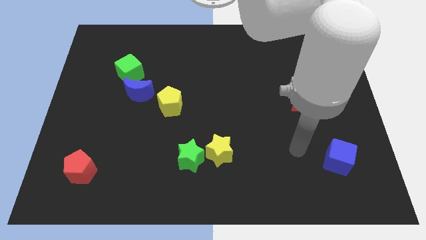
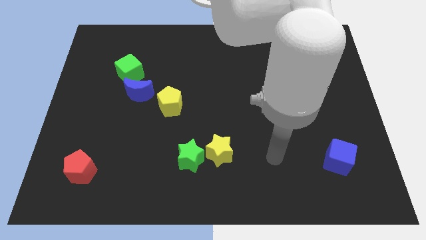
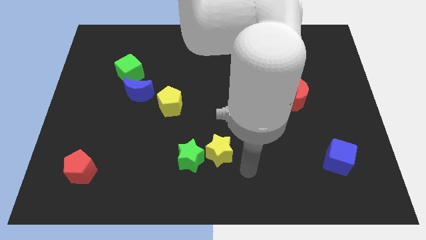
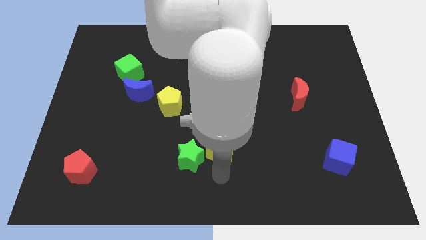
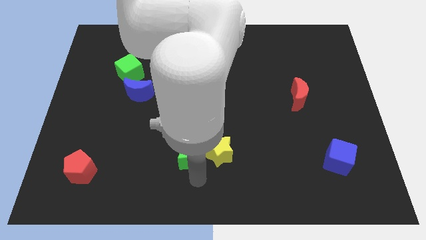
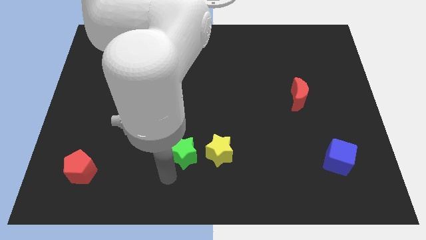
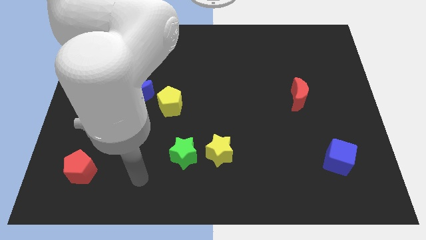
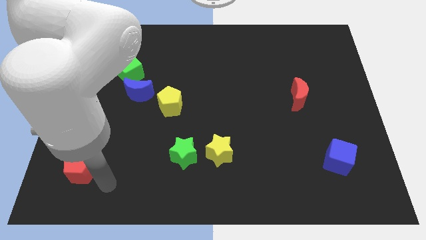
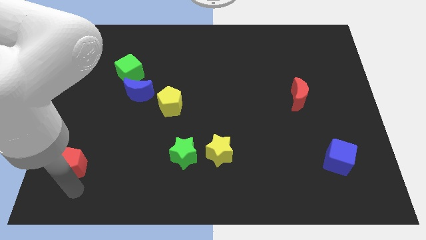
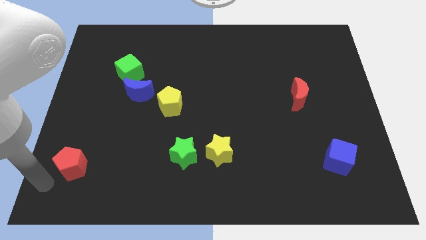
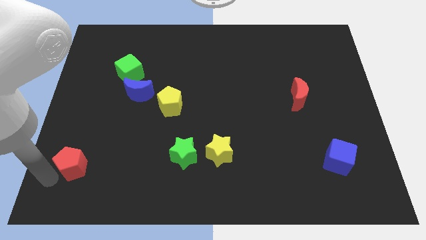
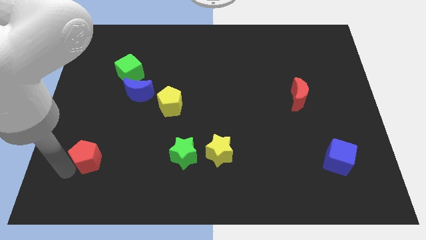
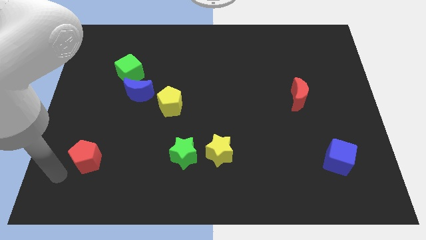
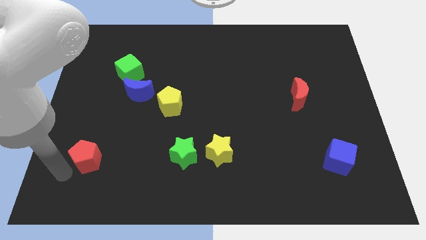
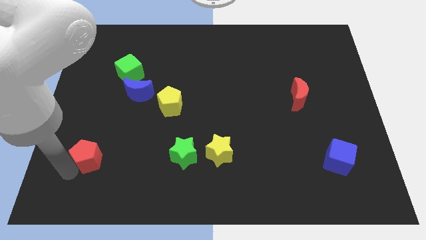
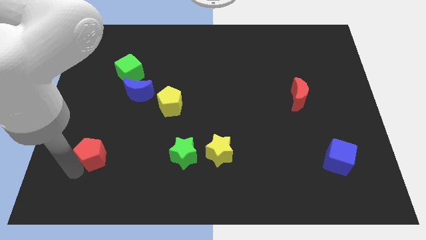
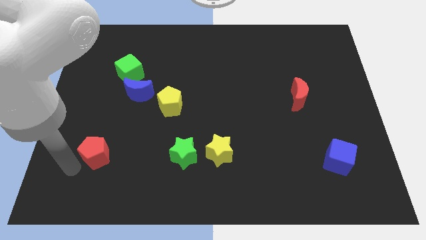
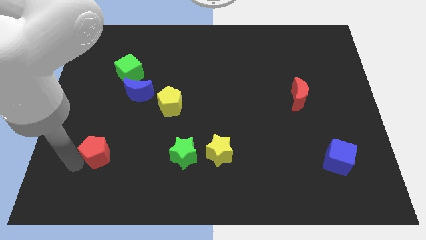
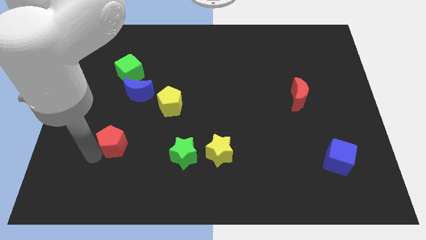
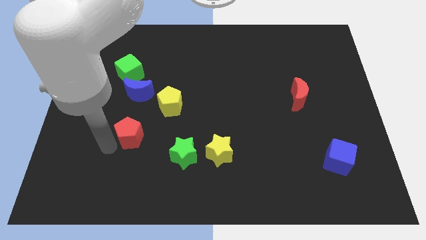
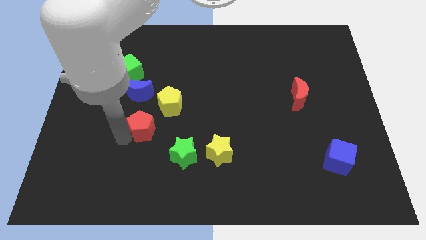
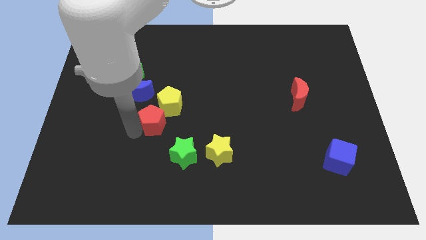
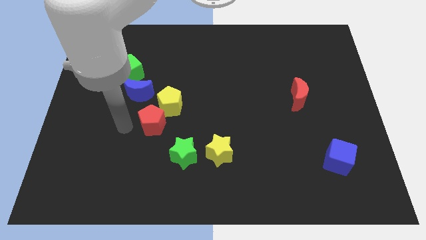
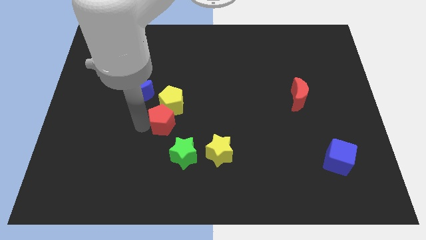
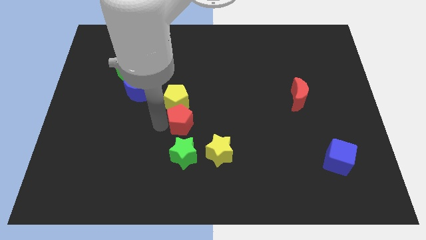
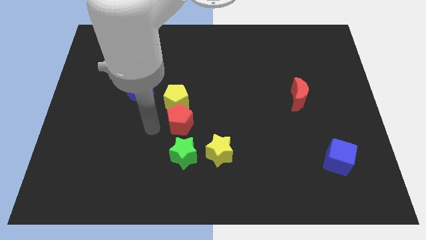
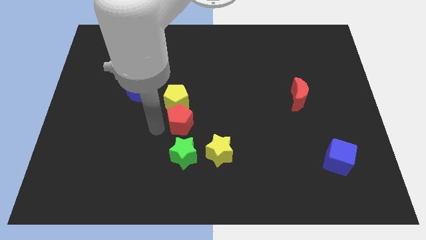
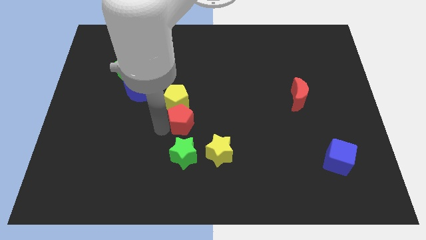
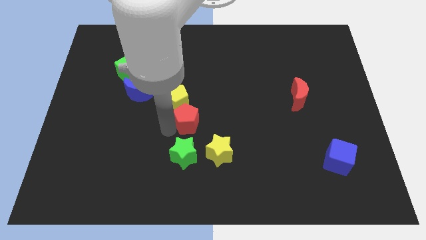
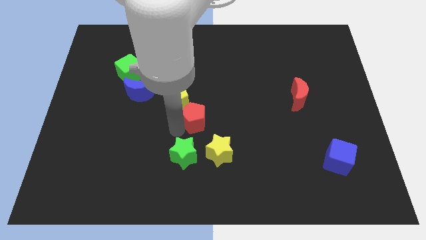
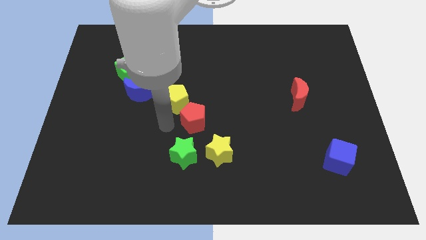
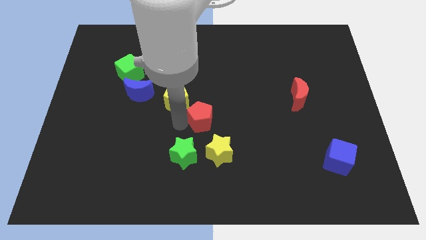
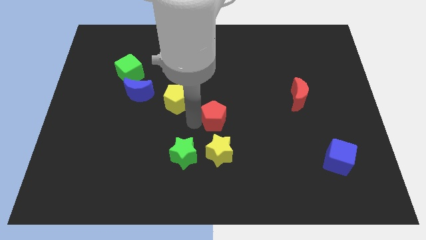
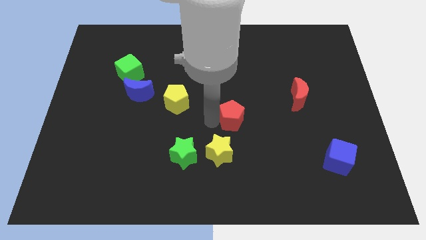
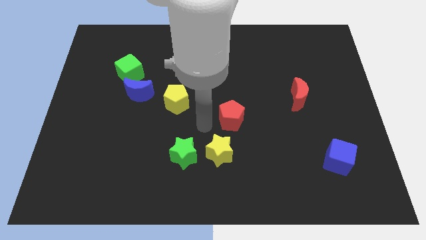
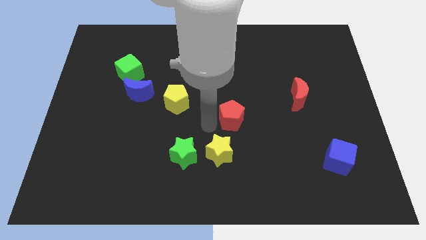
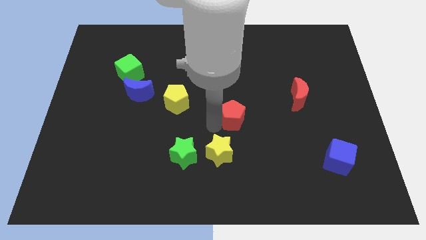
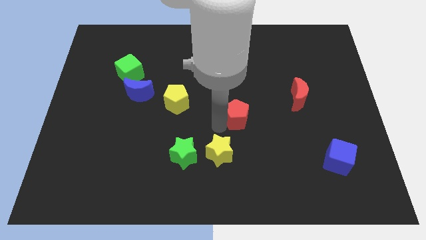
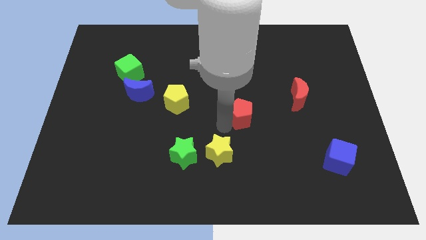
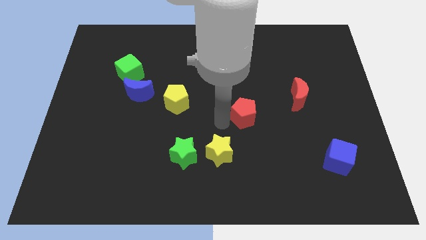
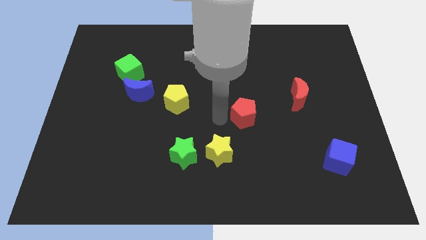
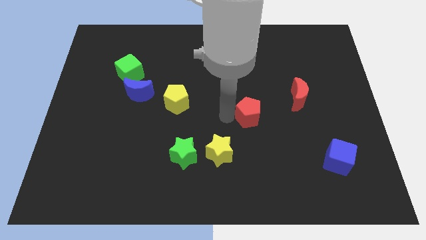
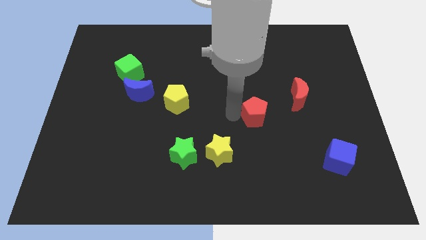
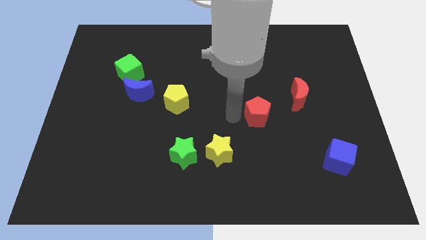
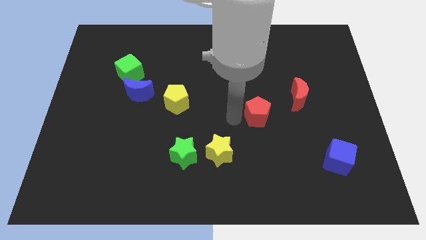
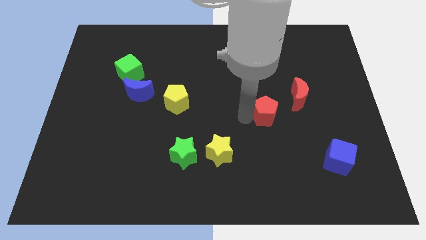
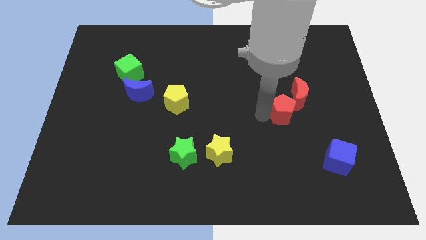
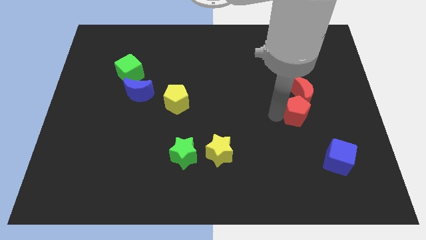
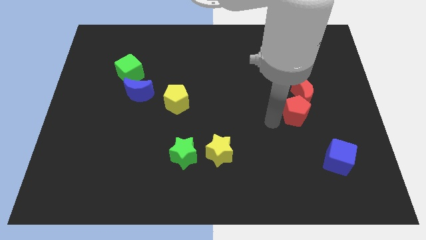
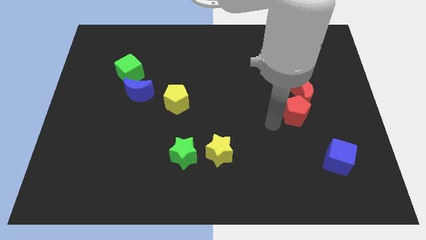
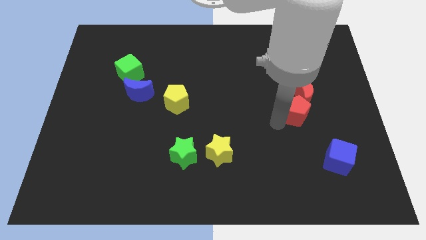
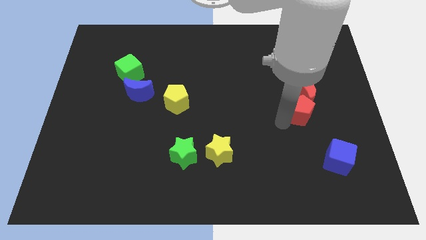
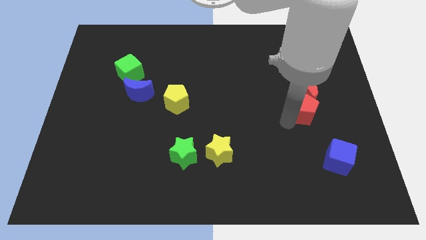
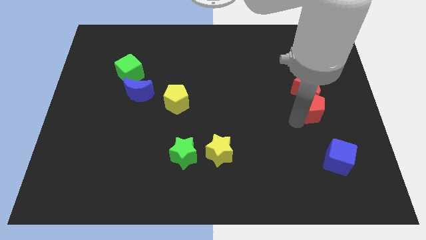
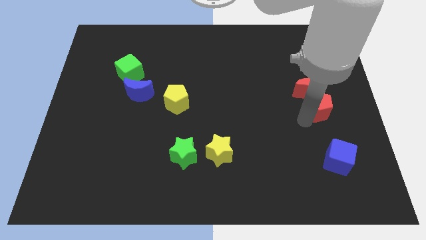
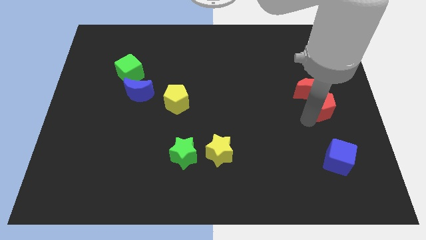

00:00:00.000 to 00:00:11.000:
move the red pentagon to the right side of the board

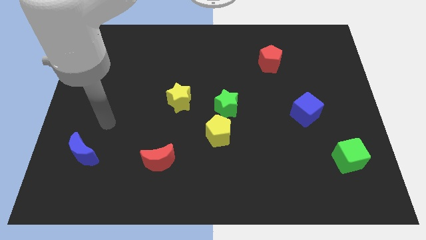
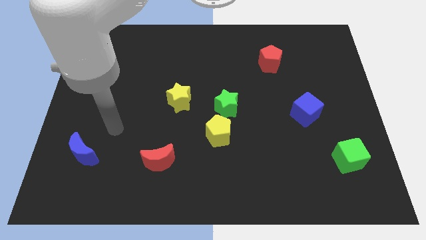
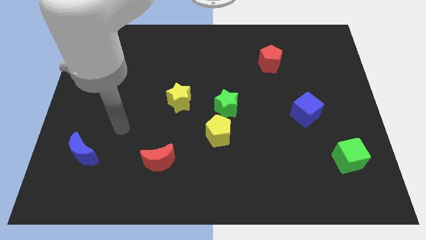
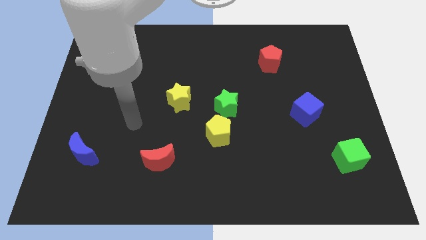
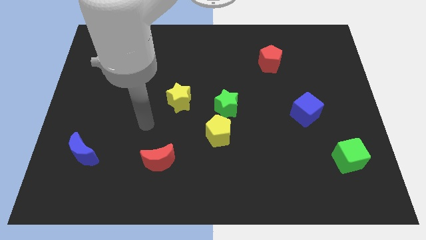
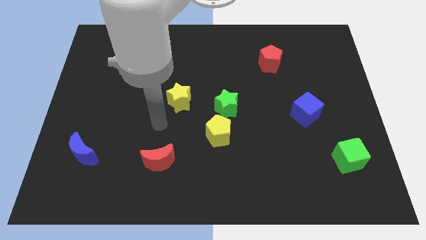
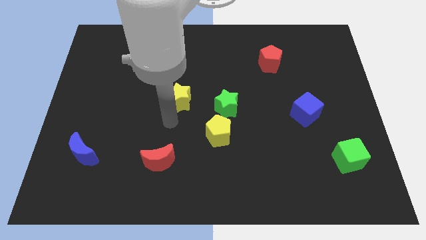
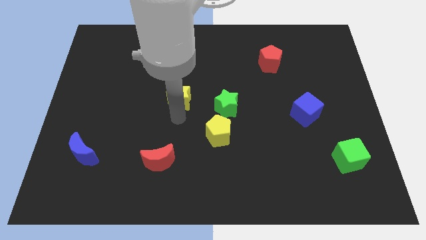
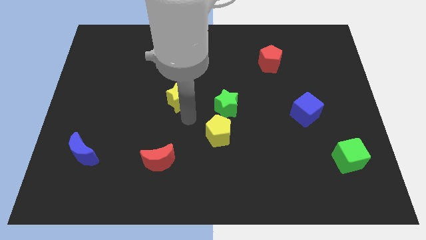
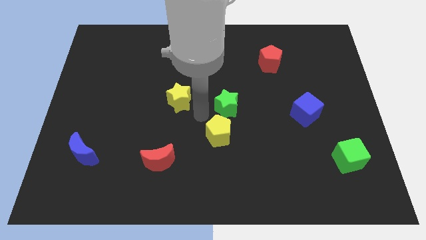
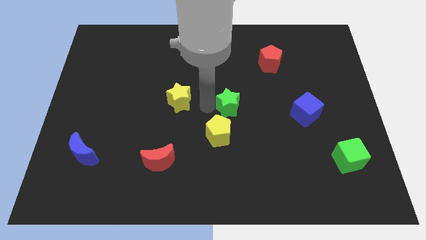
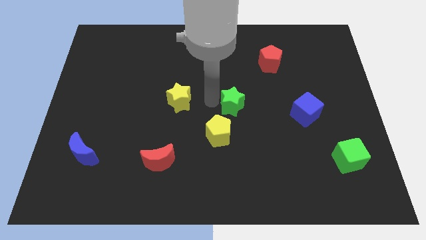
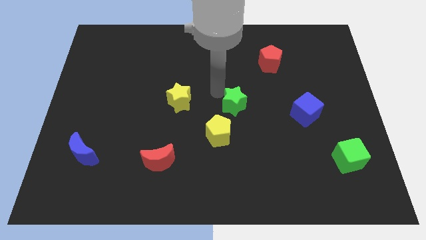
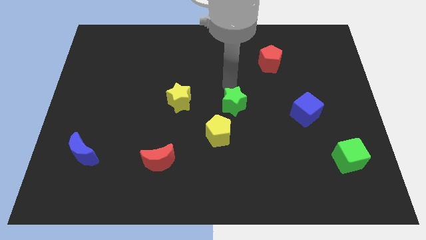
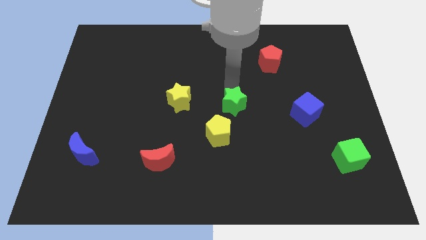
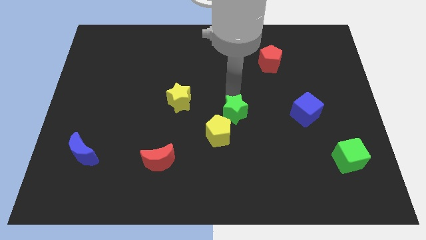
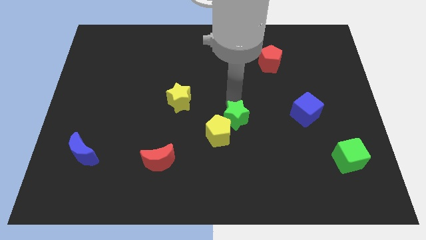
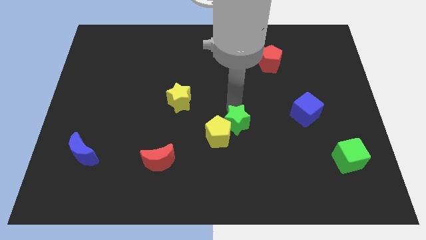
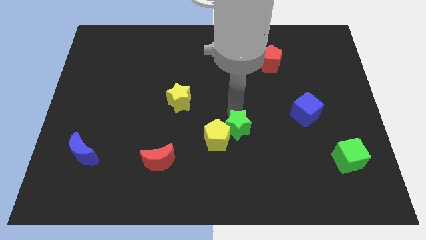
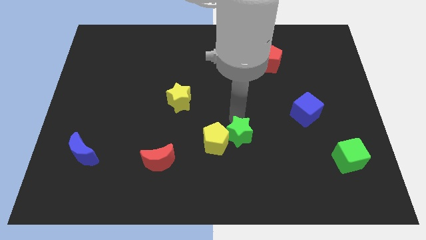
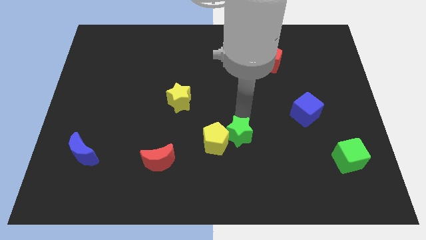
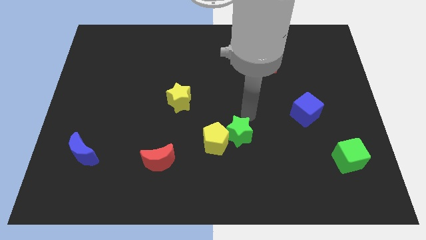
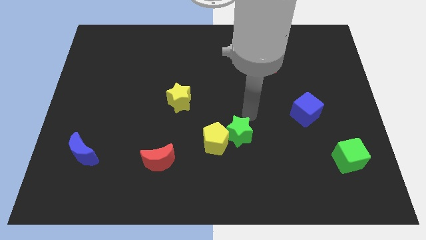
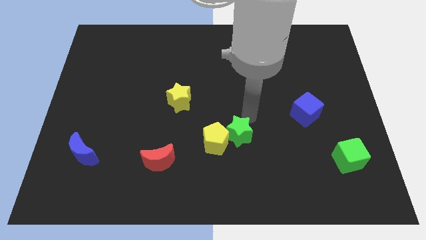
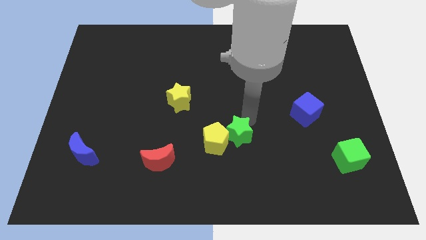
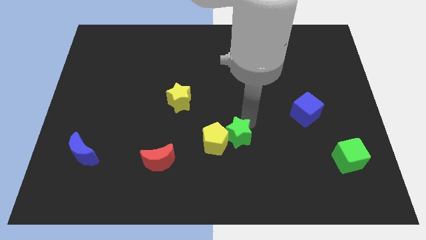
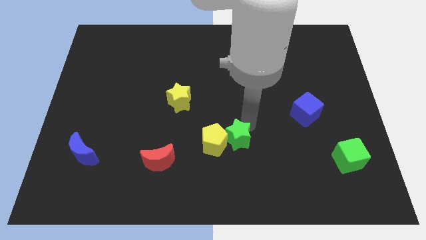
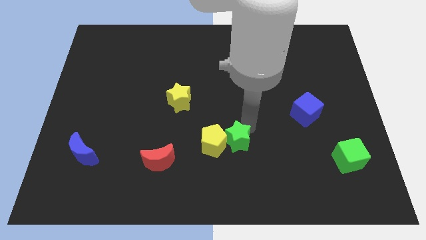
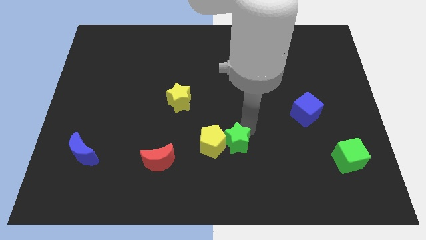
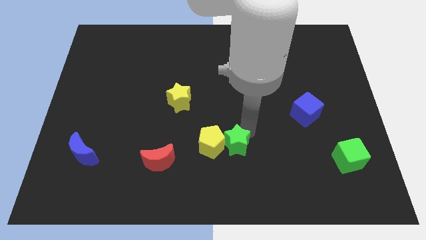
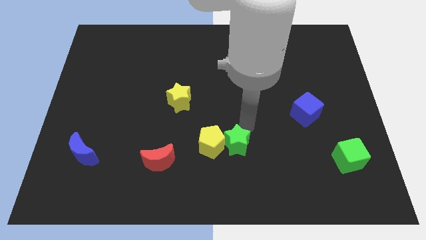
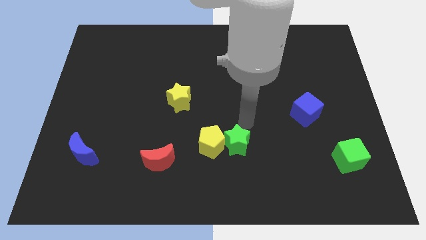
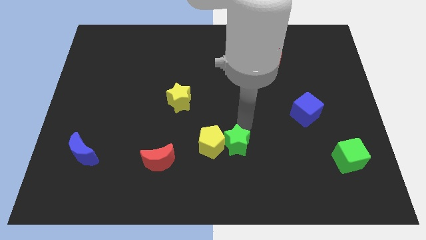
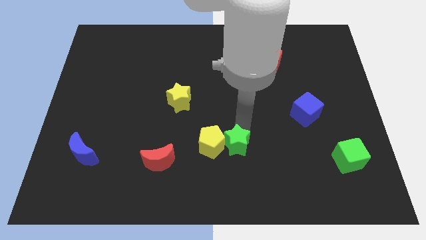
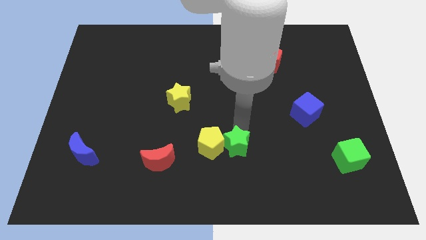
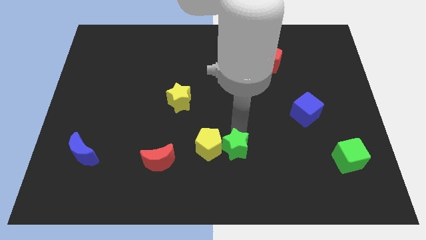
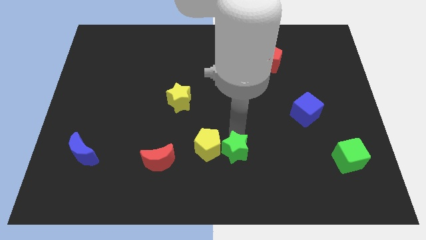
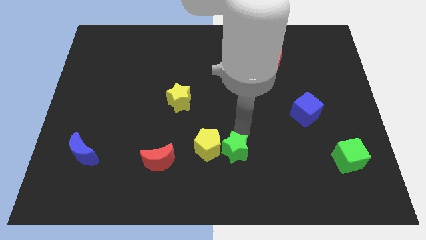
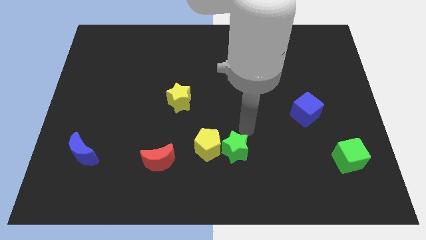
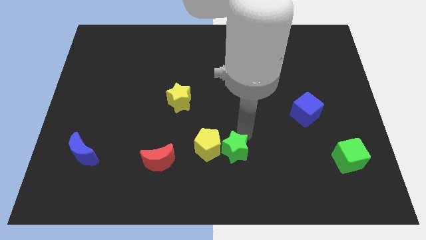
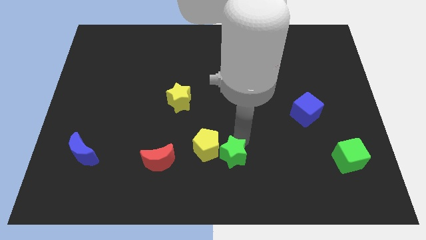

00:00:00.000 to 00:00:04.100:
push the green star to the bottom
